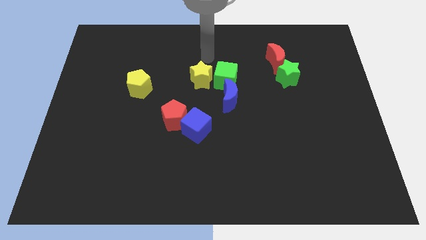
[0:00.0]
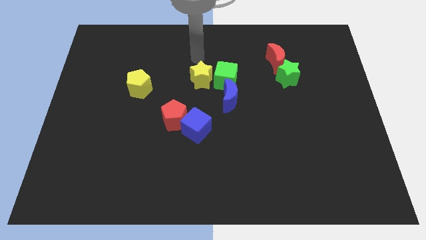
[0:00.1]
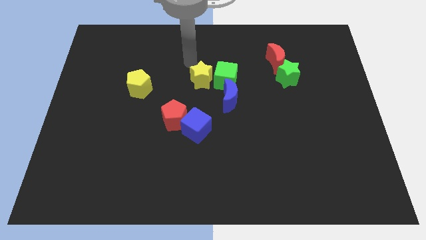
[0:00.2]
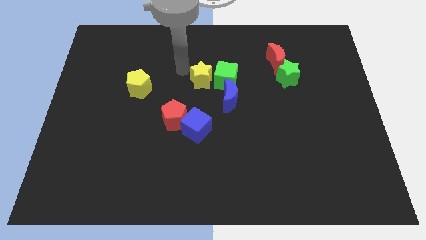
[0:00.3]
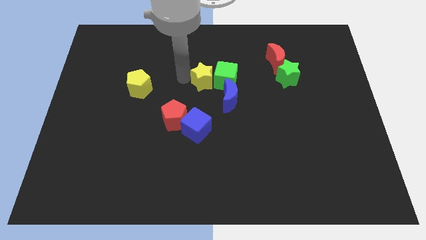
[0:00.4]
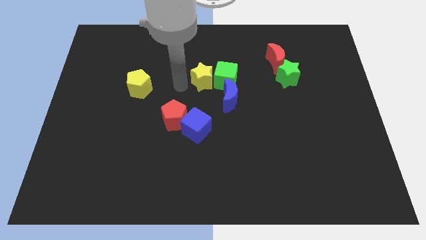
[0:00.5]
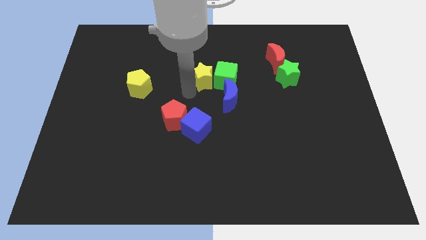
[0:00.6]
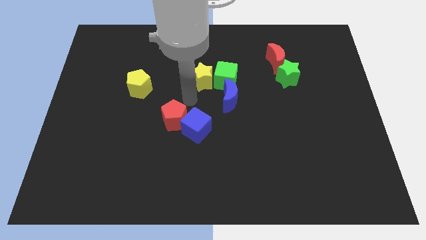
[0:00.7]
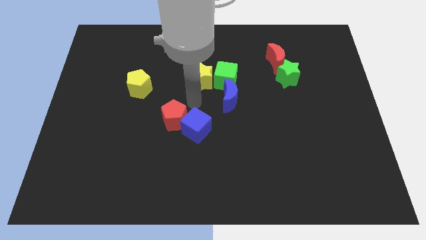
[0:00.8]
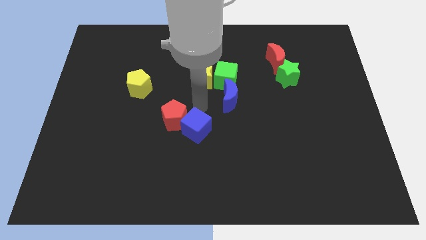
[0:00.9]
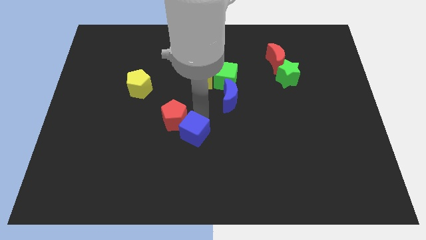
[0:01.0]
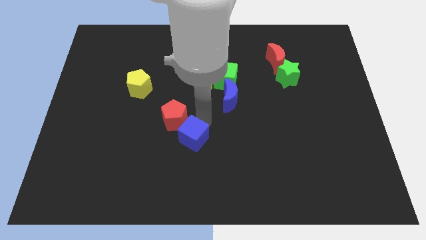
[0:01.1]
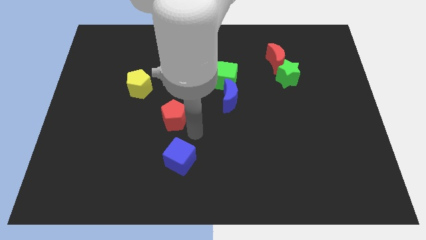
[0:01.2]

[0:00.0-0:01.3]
separate the red pentagon from the blue cube

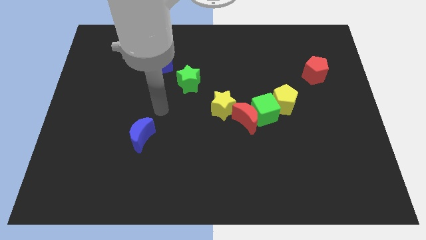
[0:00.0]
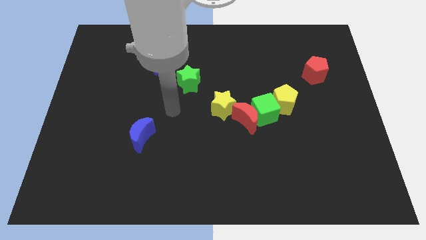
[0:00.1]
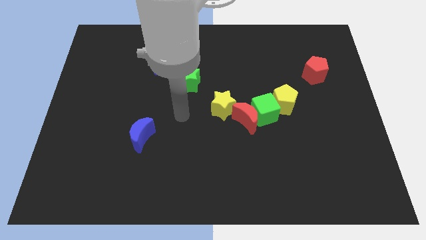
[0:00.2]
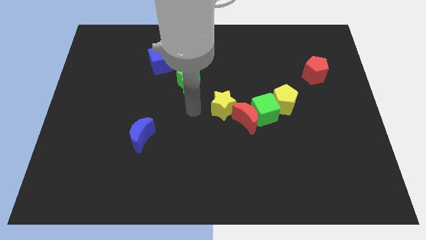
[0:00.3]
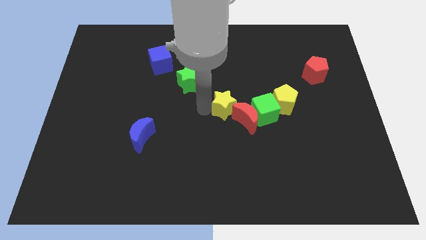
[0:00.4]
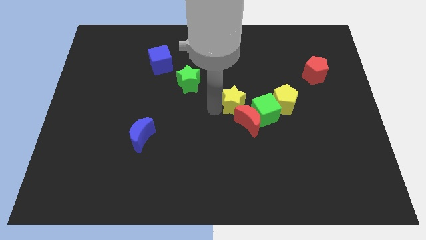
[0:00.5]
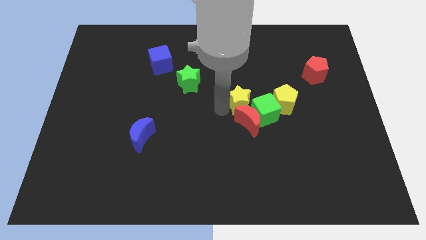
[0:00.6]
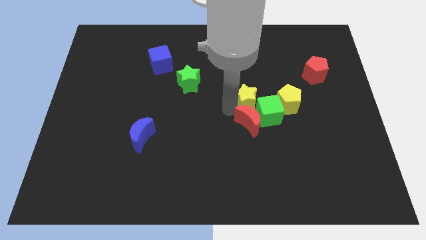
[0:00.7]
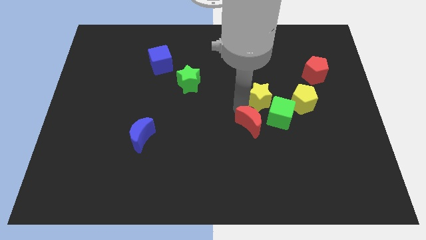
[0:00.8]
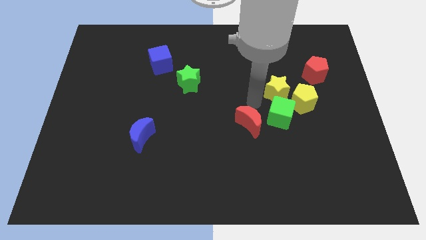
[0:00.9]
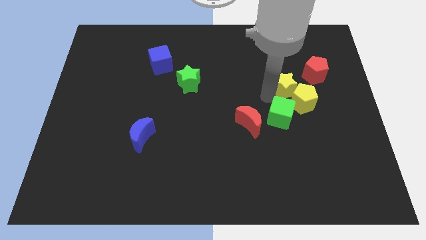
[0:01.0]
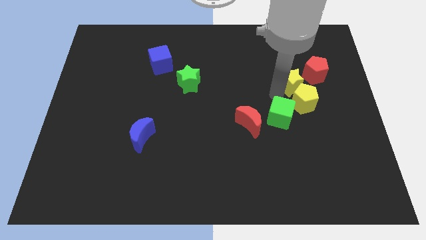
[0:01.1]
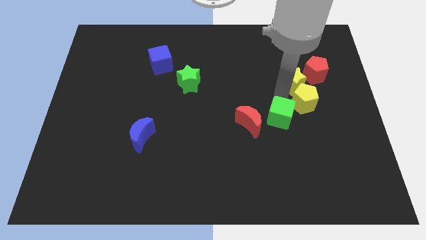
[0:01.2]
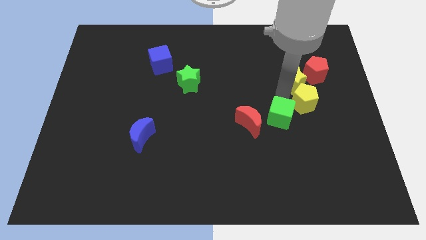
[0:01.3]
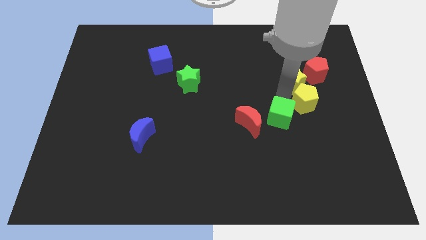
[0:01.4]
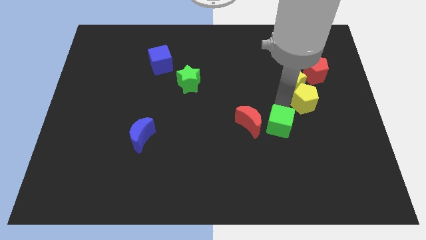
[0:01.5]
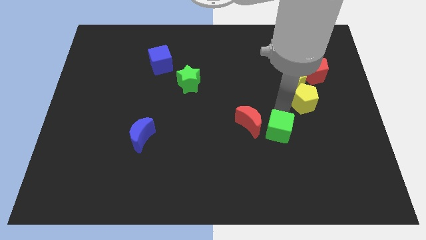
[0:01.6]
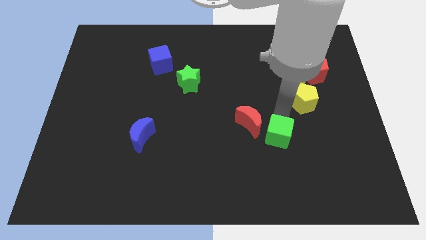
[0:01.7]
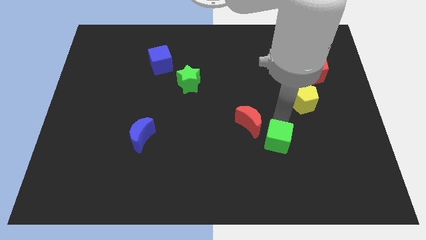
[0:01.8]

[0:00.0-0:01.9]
pull the green cube apart from the red moon, yellow pentagon, and yellow star

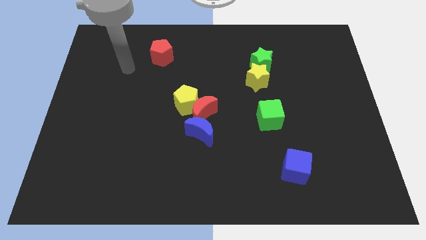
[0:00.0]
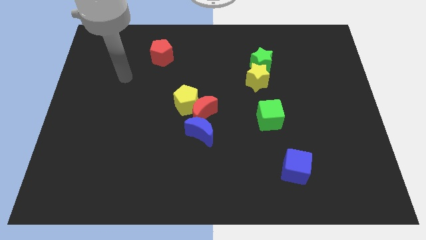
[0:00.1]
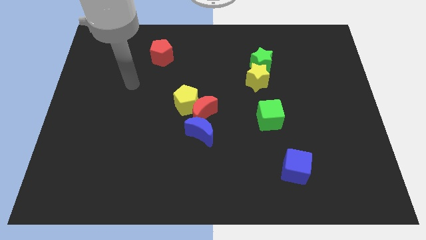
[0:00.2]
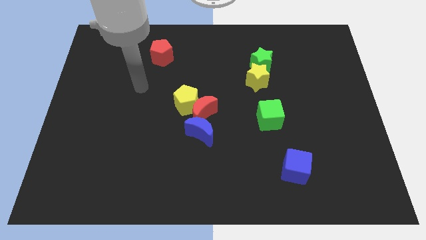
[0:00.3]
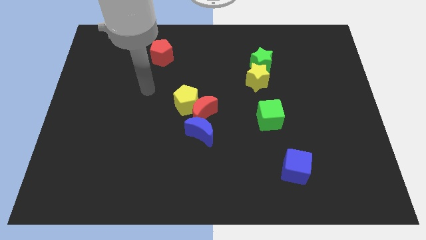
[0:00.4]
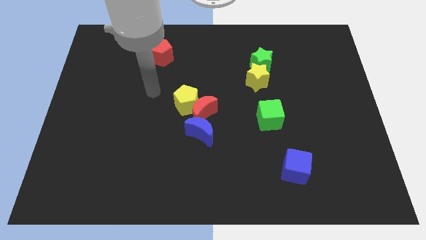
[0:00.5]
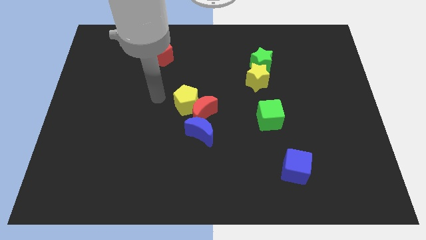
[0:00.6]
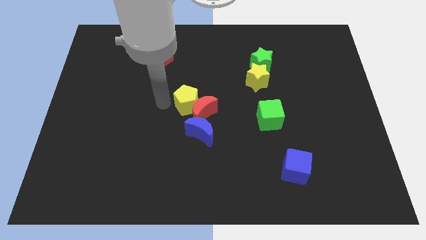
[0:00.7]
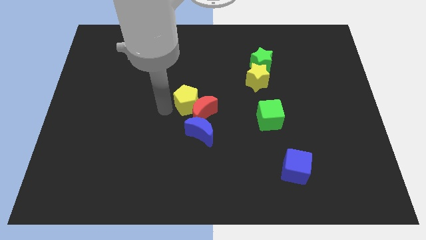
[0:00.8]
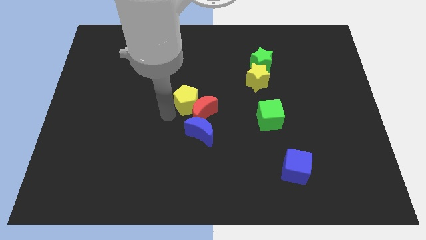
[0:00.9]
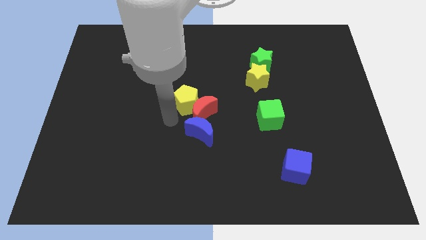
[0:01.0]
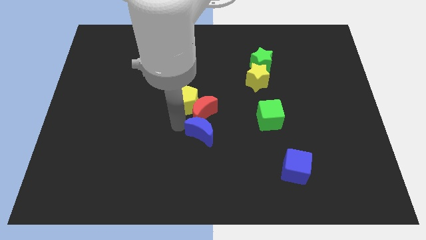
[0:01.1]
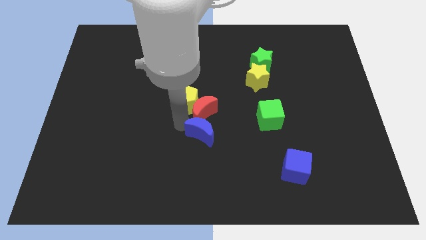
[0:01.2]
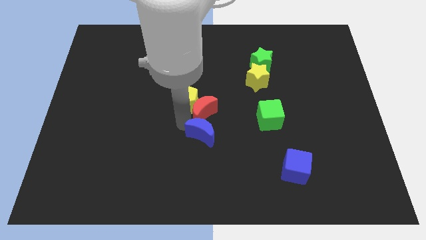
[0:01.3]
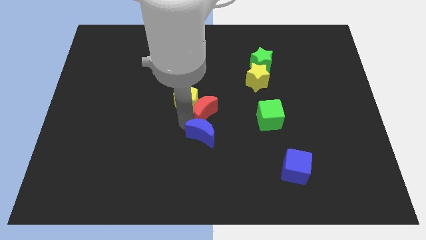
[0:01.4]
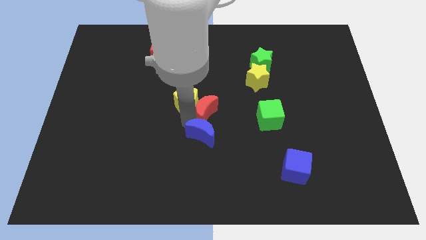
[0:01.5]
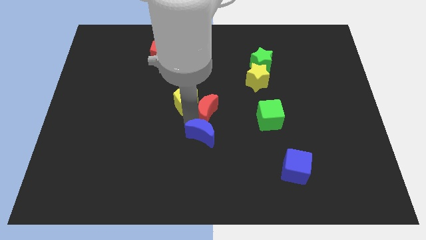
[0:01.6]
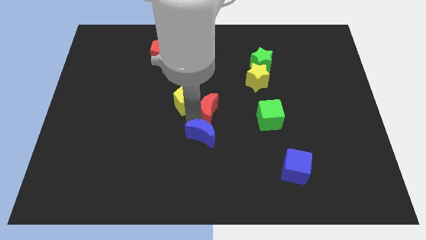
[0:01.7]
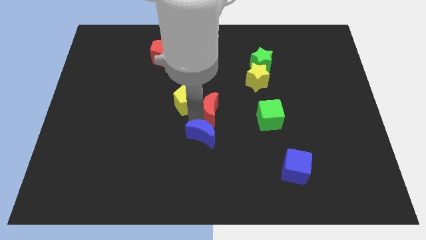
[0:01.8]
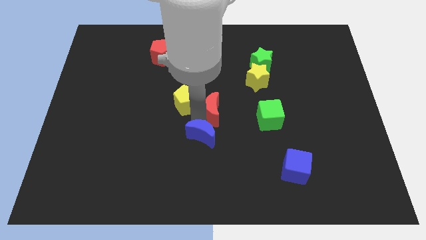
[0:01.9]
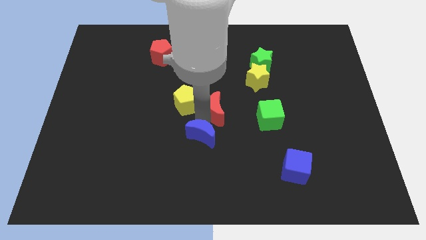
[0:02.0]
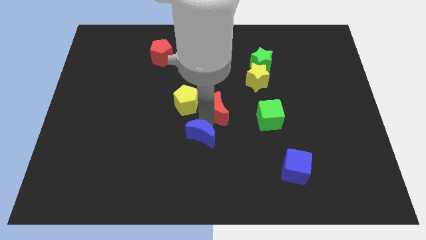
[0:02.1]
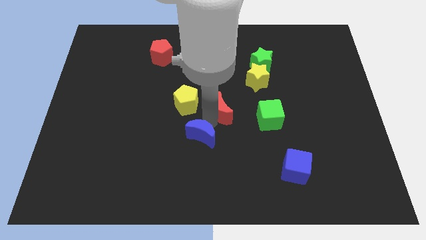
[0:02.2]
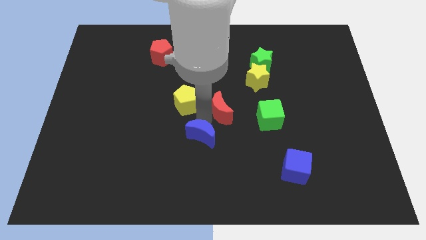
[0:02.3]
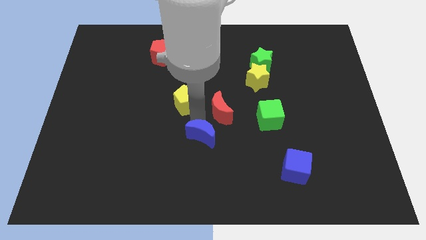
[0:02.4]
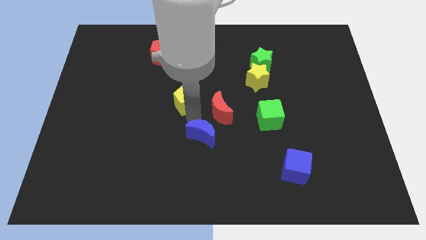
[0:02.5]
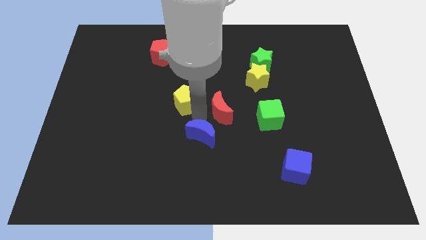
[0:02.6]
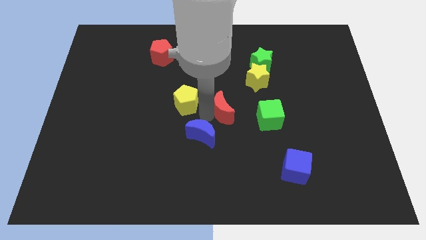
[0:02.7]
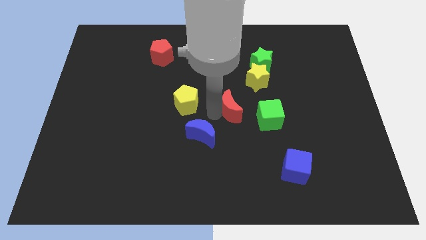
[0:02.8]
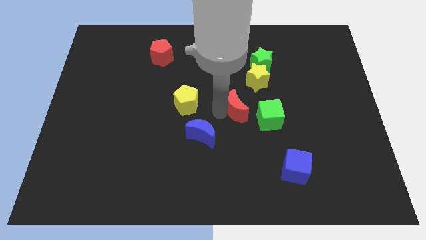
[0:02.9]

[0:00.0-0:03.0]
separate the red moon from the yellow pentagon and blue moon

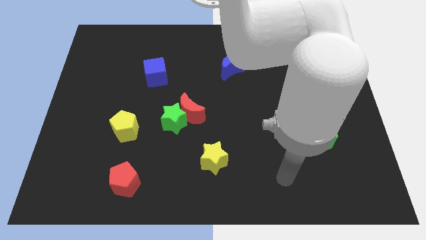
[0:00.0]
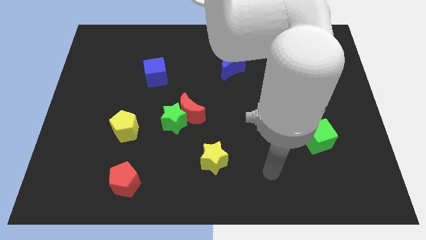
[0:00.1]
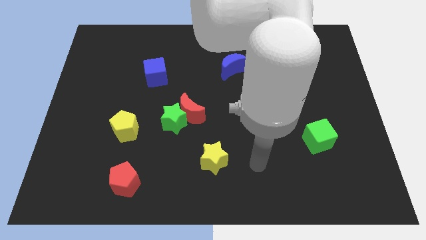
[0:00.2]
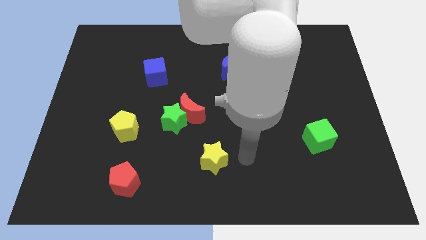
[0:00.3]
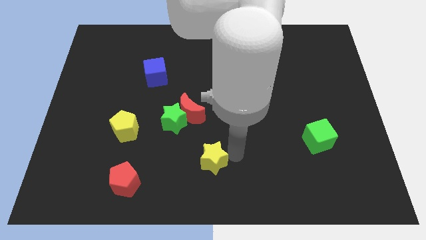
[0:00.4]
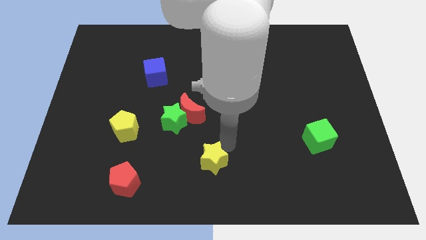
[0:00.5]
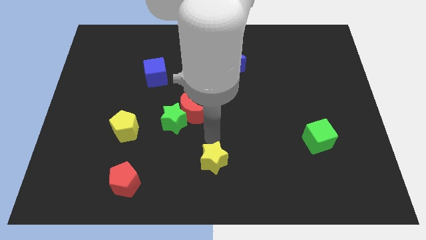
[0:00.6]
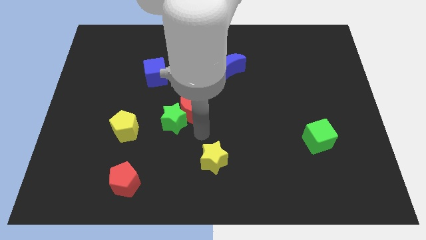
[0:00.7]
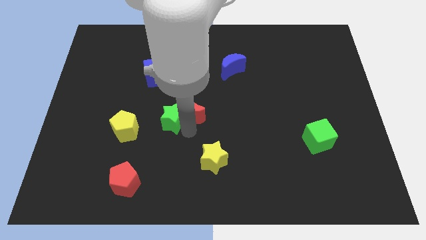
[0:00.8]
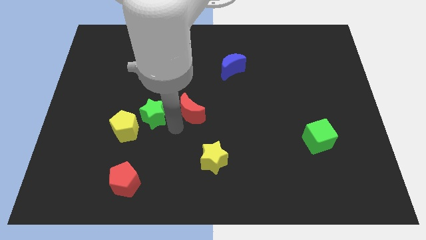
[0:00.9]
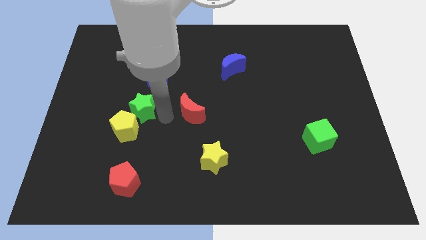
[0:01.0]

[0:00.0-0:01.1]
separate the red moon from the green star

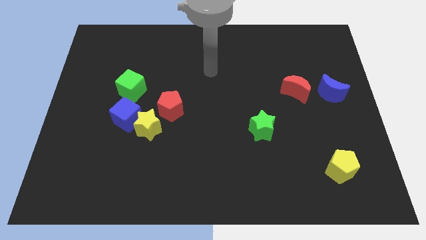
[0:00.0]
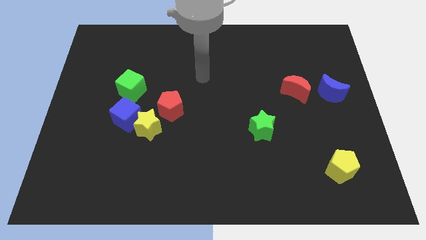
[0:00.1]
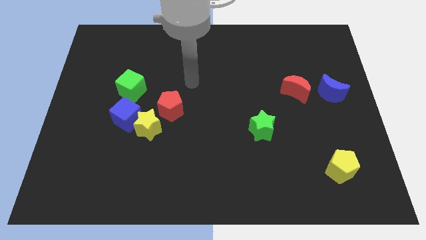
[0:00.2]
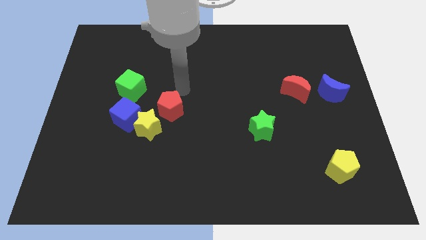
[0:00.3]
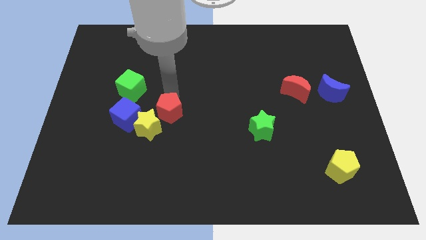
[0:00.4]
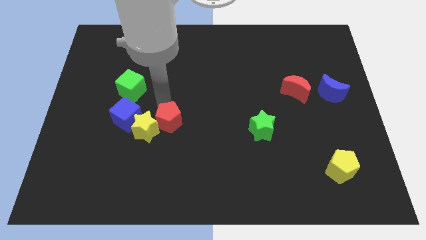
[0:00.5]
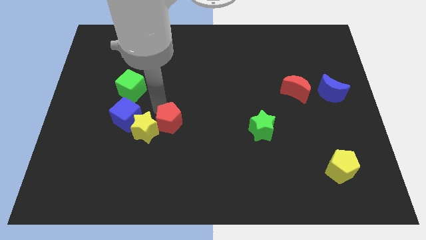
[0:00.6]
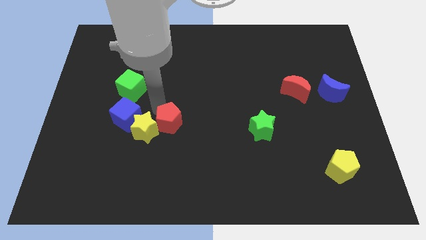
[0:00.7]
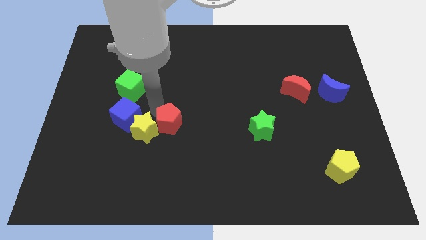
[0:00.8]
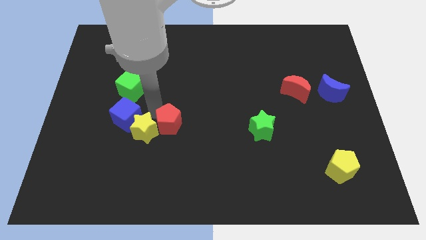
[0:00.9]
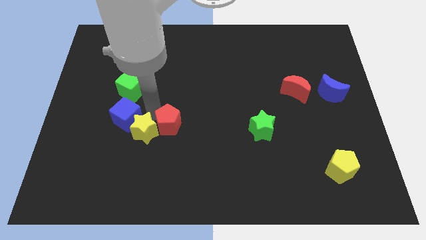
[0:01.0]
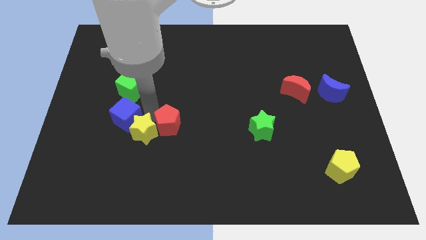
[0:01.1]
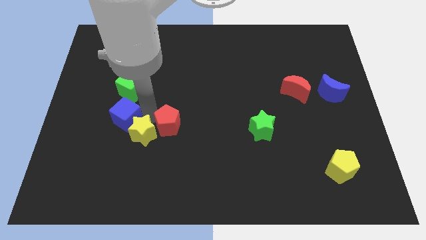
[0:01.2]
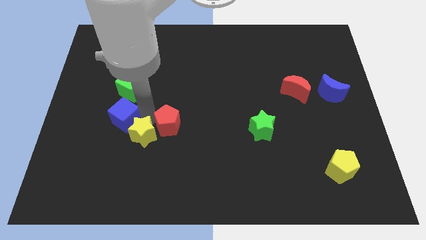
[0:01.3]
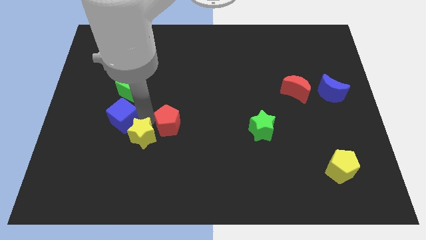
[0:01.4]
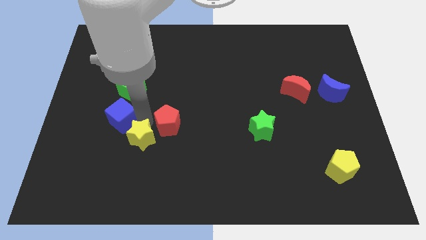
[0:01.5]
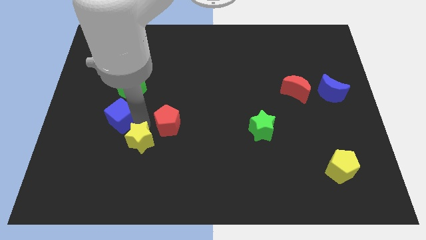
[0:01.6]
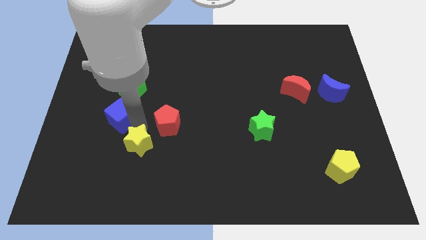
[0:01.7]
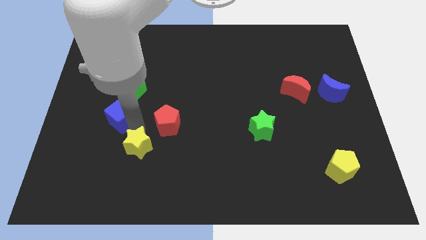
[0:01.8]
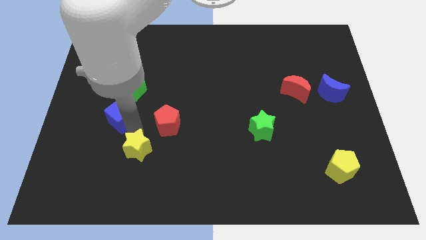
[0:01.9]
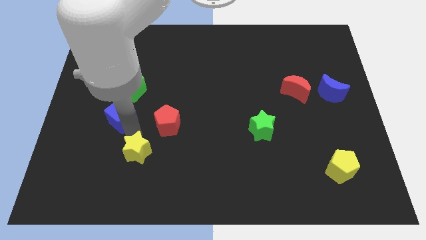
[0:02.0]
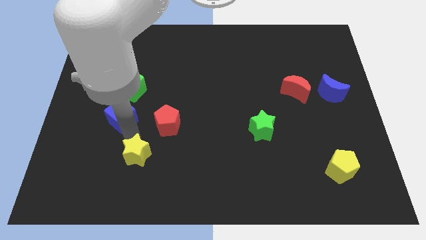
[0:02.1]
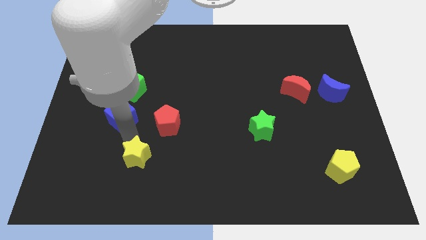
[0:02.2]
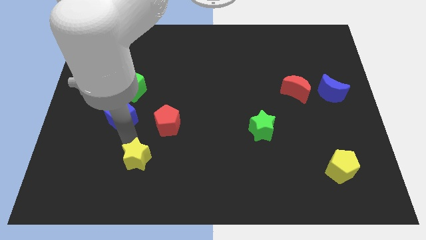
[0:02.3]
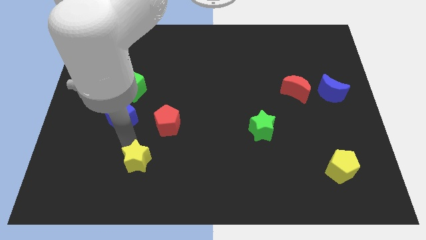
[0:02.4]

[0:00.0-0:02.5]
pull the yellow star apart from the blue cube and red pentagon
